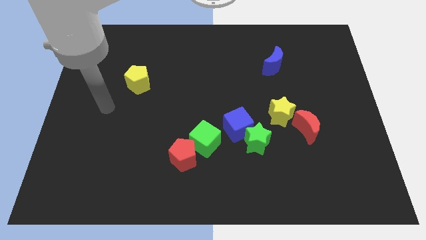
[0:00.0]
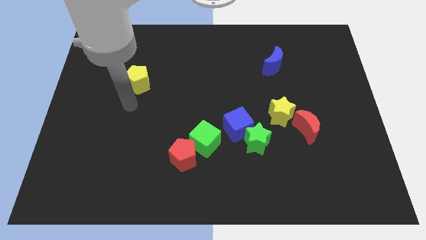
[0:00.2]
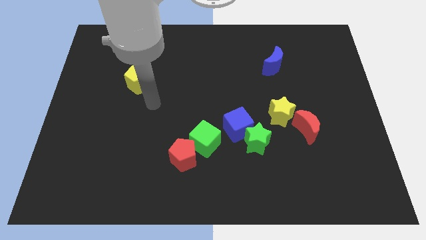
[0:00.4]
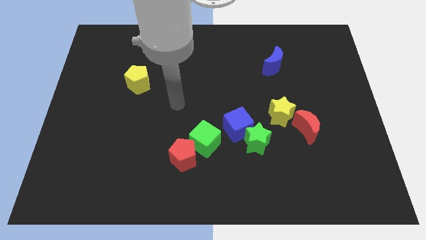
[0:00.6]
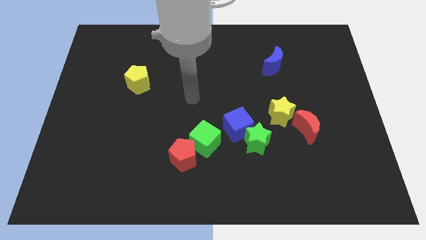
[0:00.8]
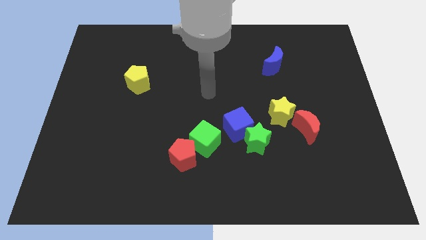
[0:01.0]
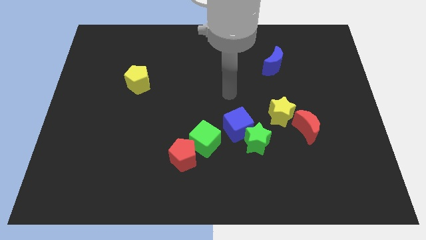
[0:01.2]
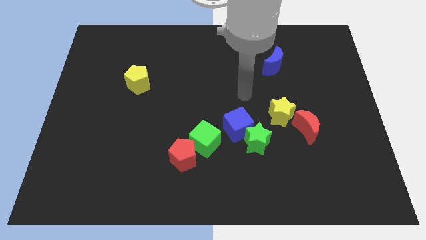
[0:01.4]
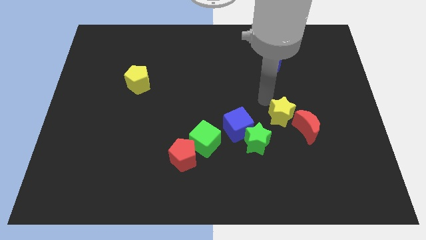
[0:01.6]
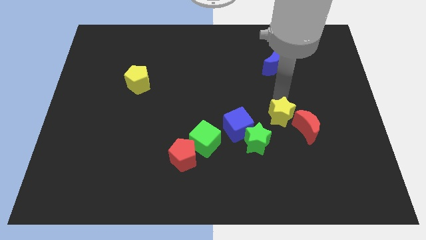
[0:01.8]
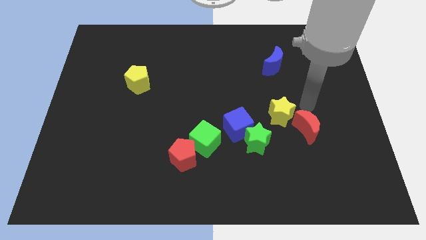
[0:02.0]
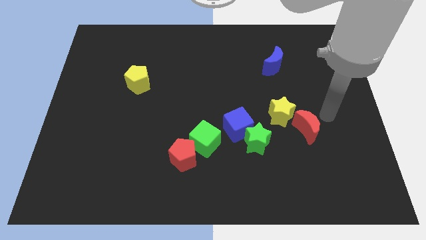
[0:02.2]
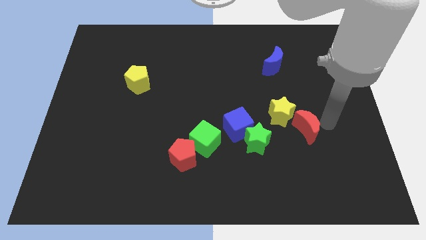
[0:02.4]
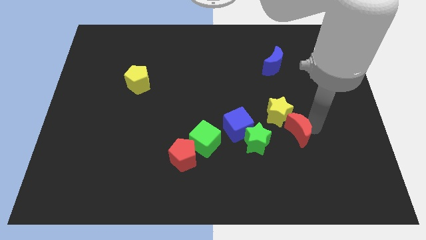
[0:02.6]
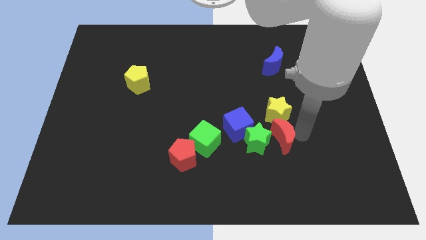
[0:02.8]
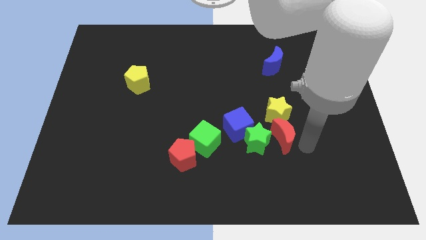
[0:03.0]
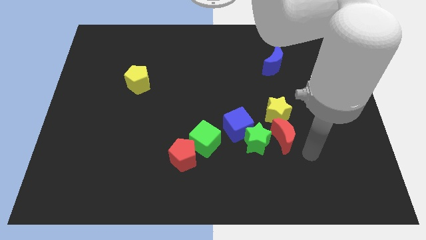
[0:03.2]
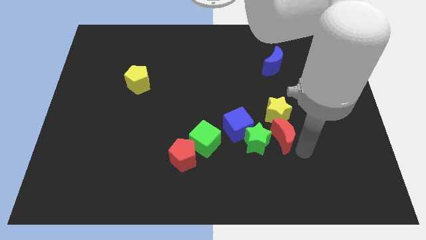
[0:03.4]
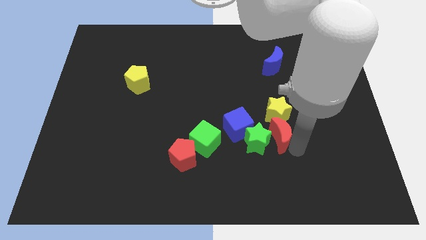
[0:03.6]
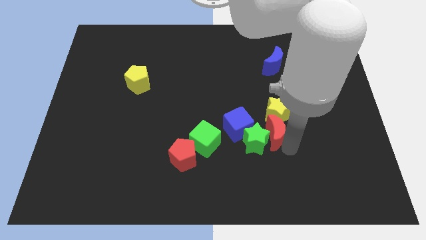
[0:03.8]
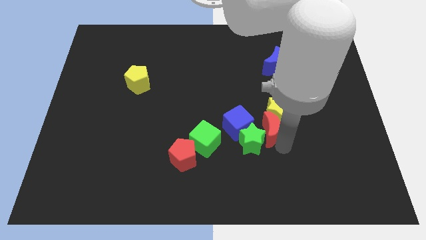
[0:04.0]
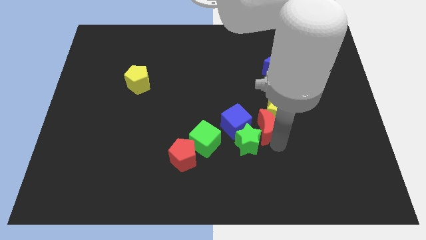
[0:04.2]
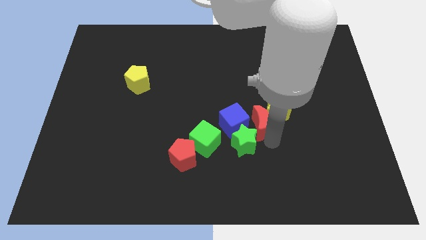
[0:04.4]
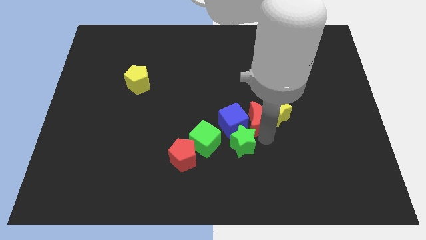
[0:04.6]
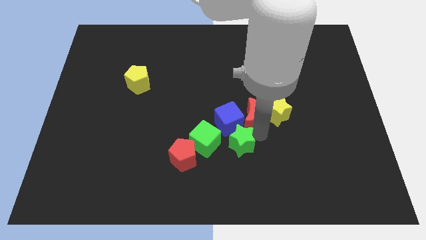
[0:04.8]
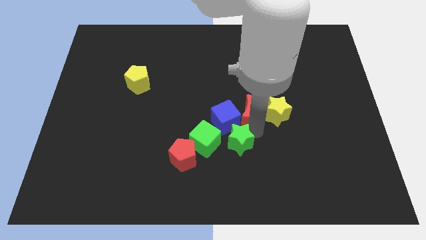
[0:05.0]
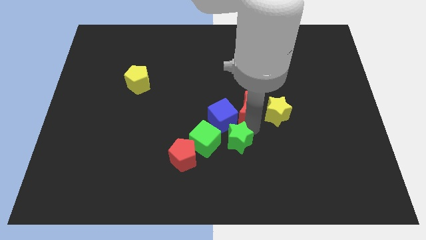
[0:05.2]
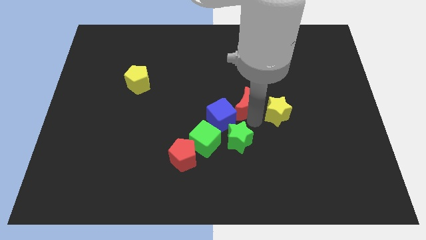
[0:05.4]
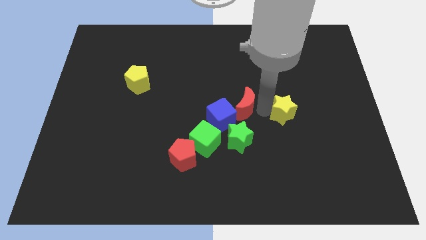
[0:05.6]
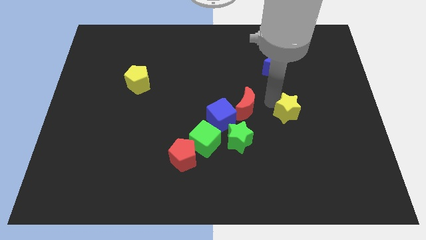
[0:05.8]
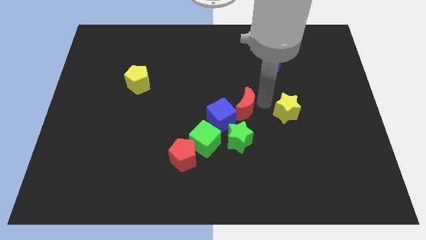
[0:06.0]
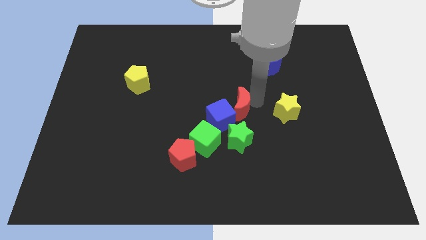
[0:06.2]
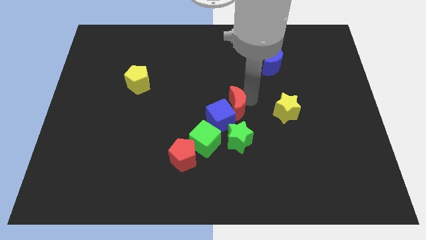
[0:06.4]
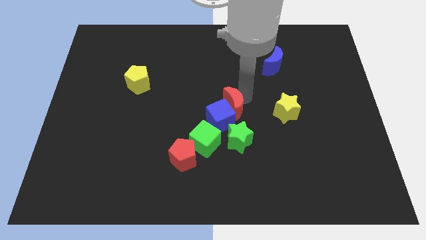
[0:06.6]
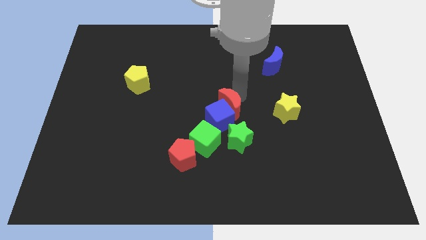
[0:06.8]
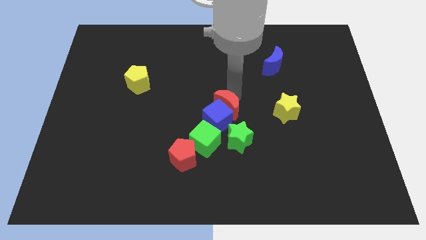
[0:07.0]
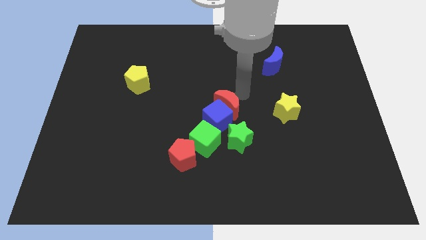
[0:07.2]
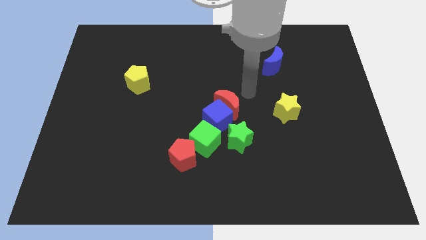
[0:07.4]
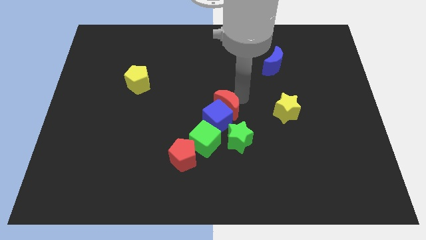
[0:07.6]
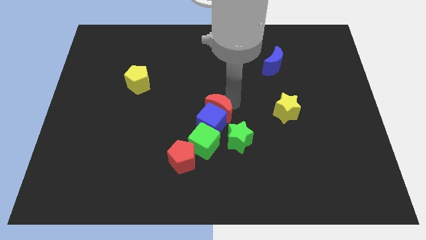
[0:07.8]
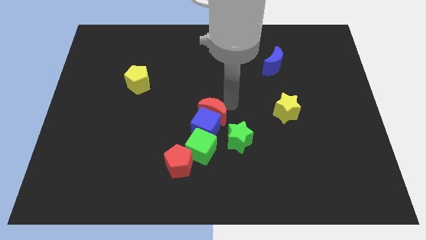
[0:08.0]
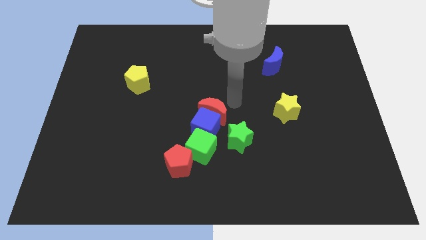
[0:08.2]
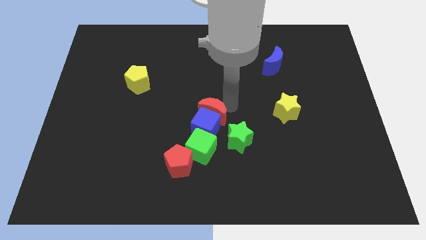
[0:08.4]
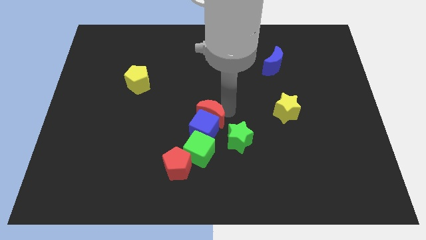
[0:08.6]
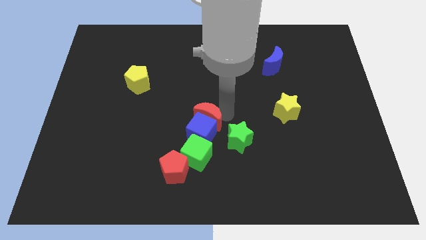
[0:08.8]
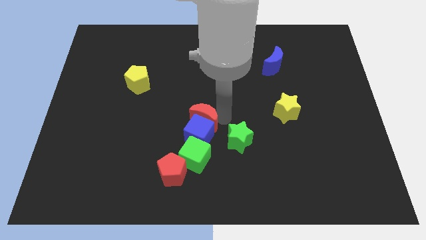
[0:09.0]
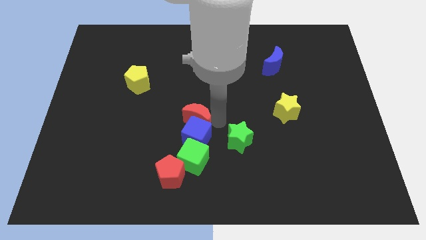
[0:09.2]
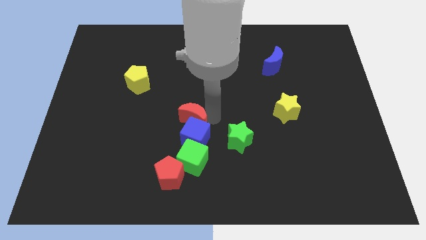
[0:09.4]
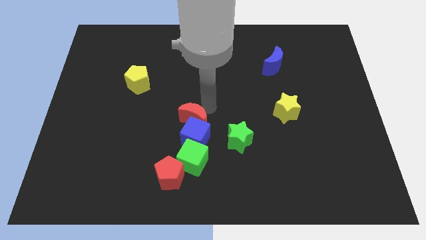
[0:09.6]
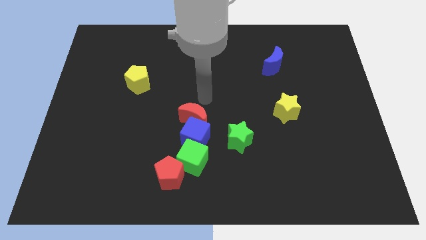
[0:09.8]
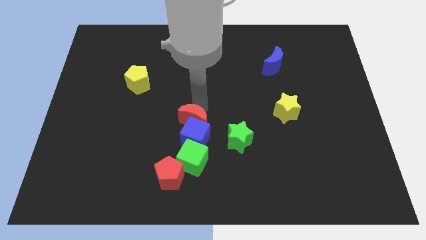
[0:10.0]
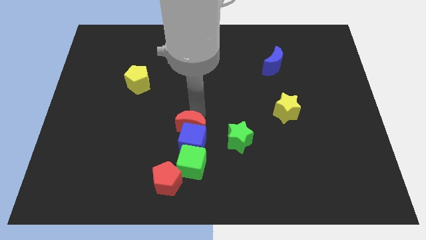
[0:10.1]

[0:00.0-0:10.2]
move the red moon left of the green star

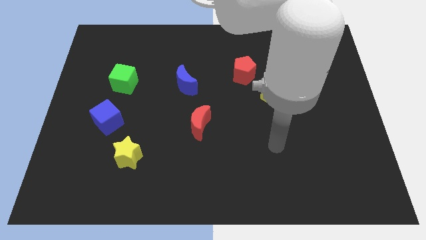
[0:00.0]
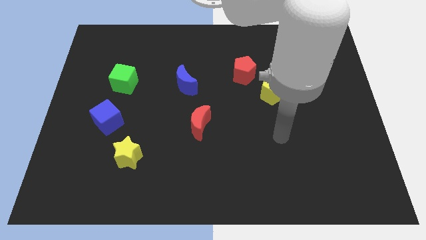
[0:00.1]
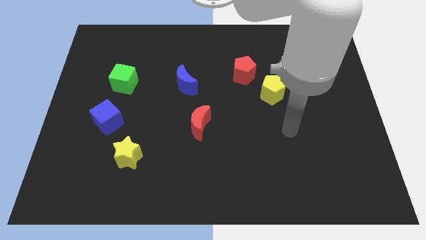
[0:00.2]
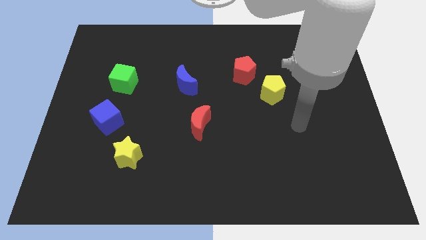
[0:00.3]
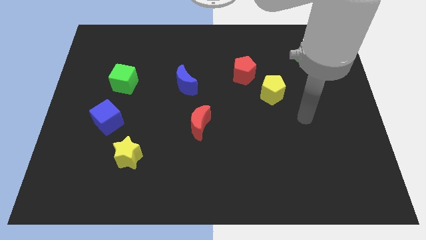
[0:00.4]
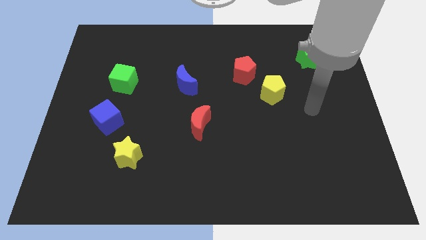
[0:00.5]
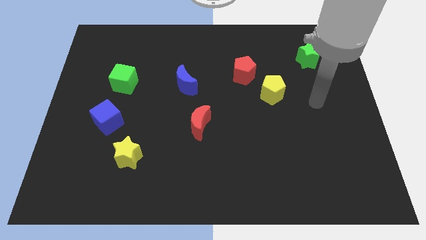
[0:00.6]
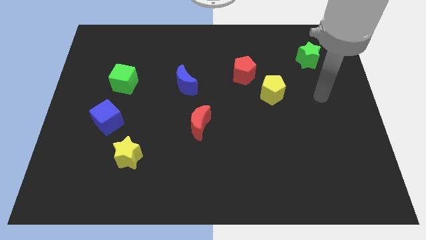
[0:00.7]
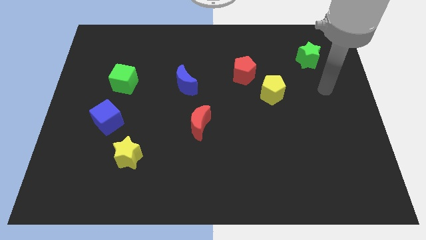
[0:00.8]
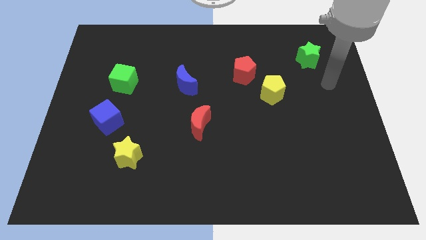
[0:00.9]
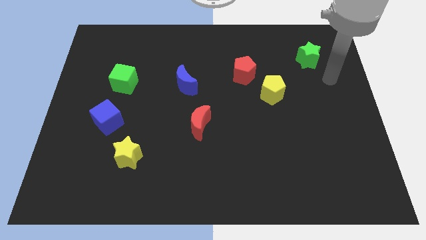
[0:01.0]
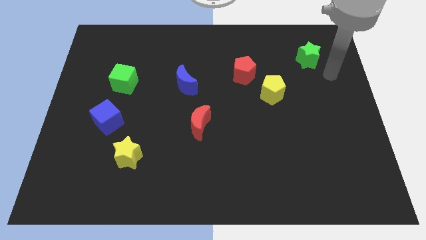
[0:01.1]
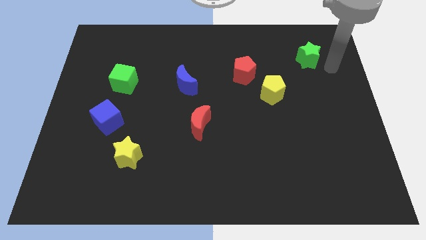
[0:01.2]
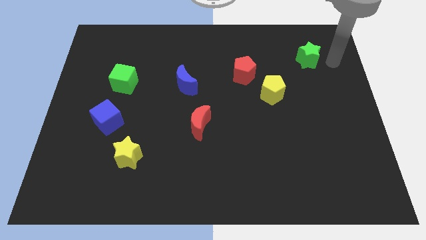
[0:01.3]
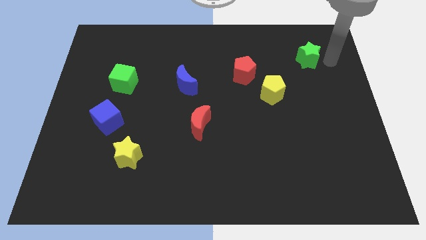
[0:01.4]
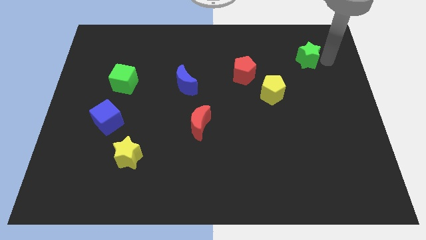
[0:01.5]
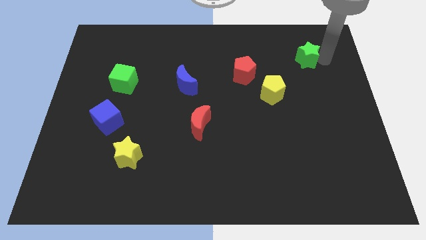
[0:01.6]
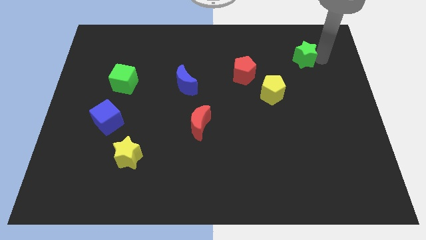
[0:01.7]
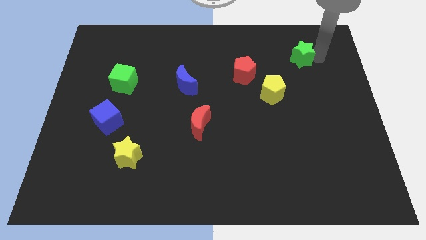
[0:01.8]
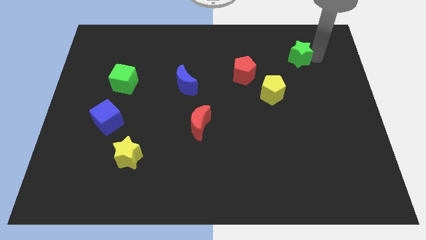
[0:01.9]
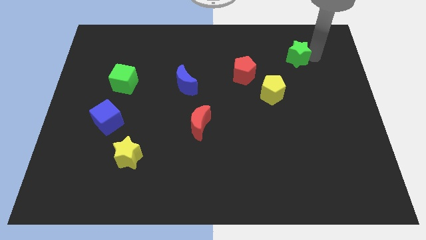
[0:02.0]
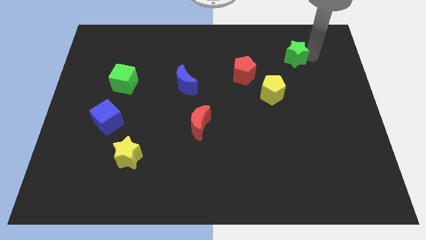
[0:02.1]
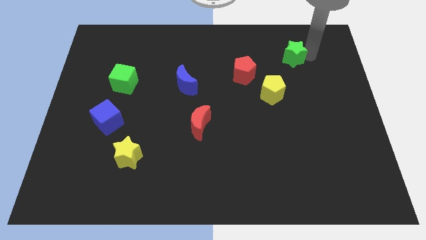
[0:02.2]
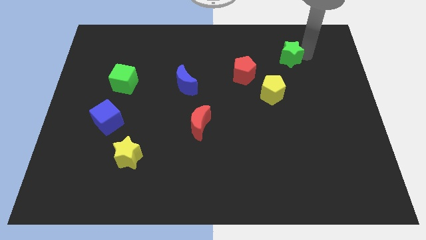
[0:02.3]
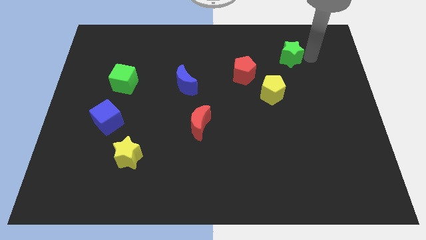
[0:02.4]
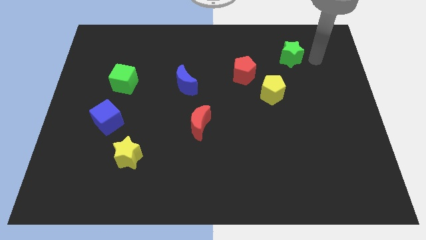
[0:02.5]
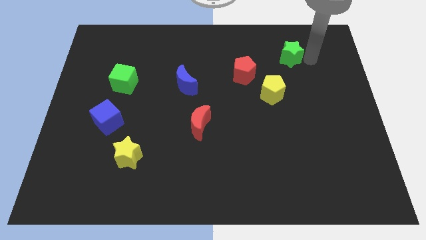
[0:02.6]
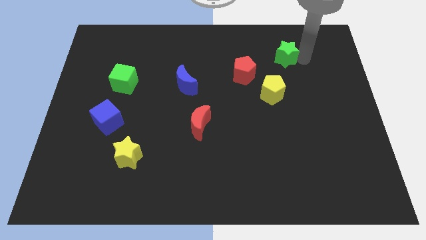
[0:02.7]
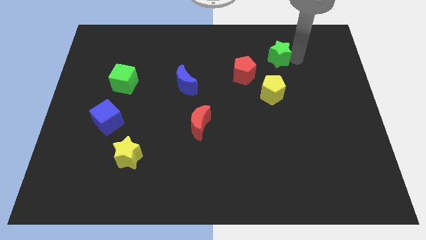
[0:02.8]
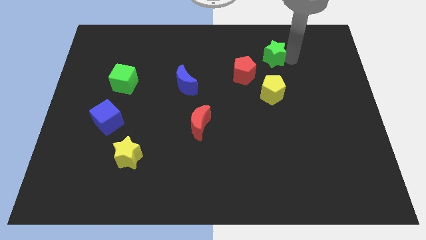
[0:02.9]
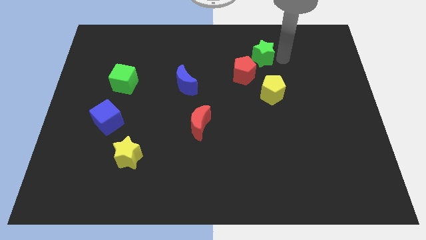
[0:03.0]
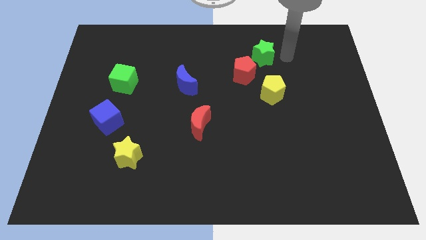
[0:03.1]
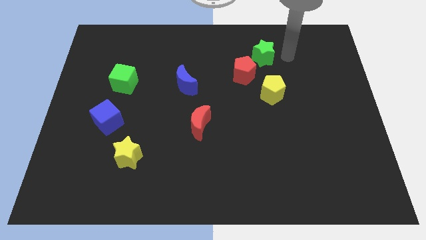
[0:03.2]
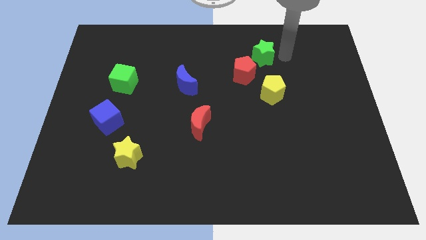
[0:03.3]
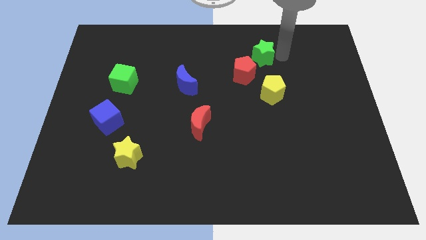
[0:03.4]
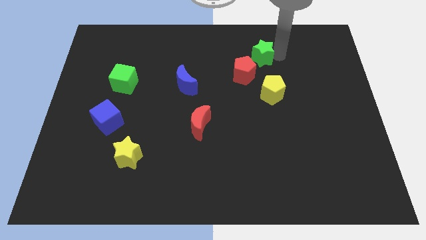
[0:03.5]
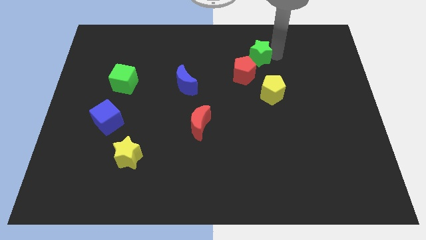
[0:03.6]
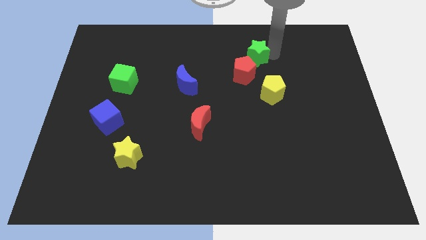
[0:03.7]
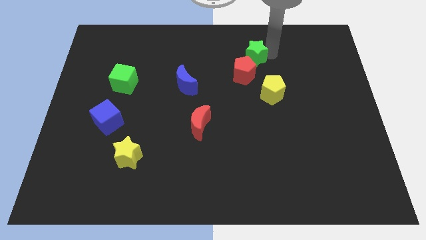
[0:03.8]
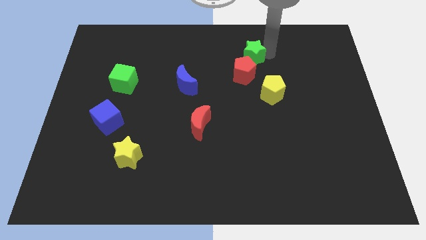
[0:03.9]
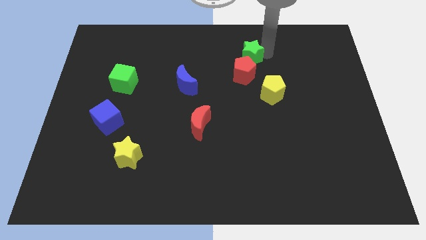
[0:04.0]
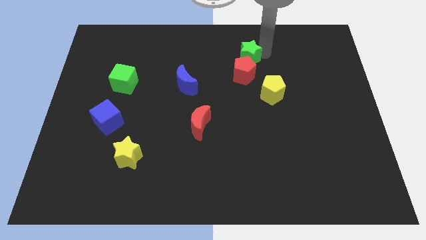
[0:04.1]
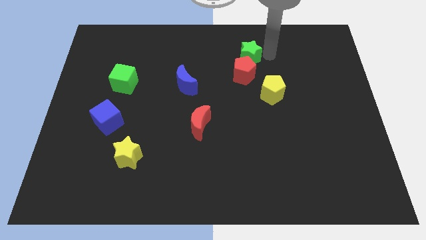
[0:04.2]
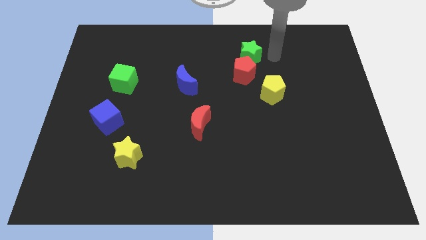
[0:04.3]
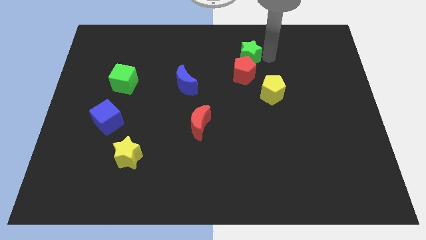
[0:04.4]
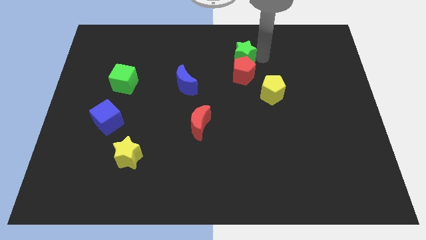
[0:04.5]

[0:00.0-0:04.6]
put the green star to the top left of the red pentagon
